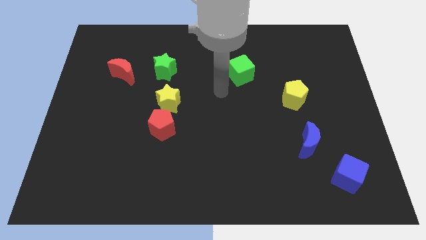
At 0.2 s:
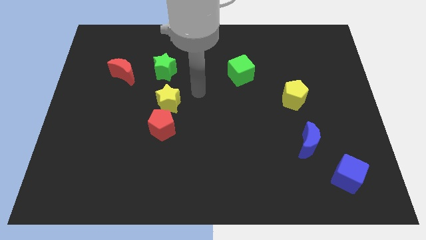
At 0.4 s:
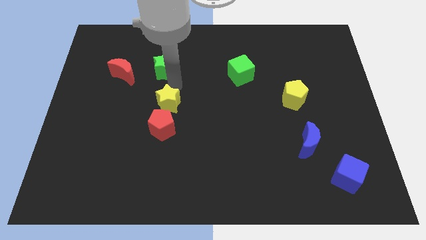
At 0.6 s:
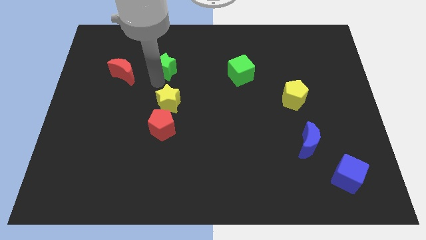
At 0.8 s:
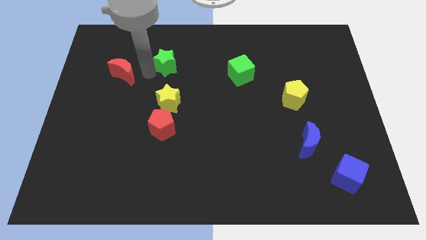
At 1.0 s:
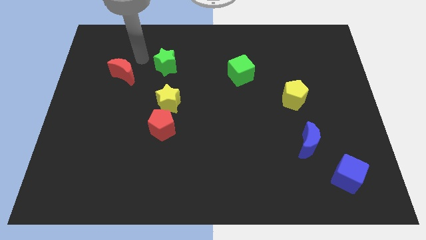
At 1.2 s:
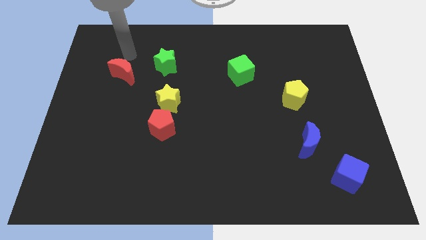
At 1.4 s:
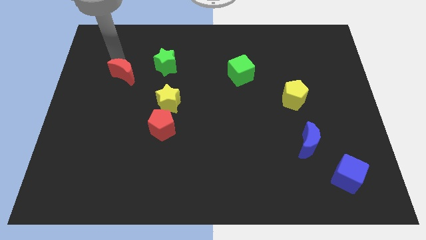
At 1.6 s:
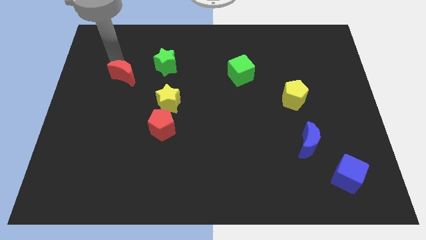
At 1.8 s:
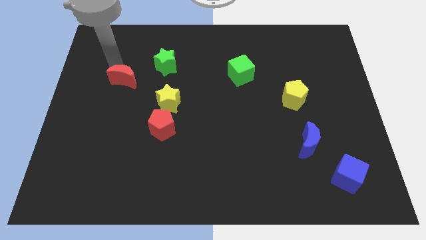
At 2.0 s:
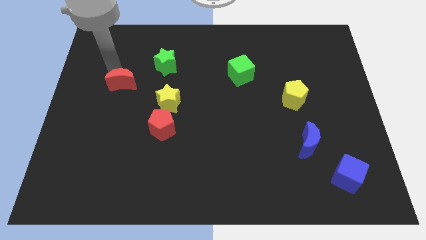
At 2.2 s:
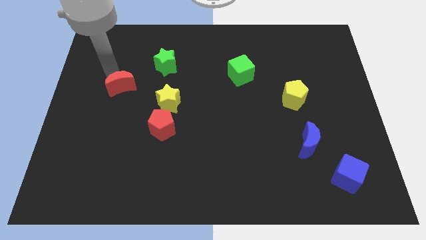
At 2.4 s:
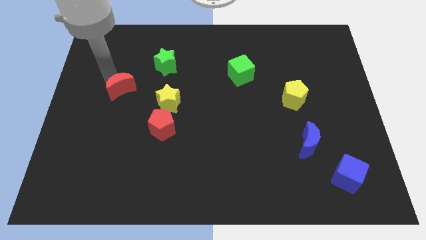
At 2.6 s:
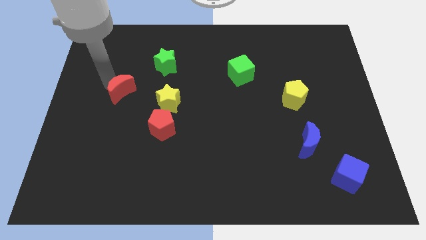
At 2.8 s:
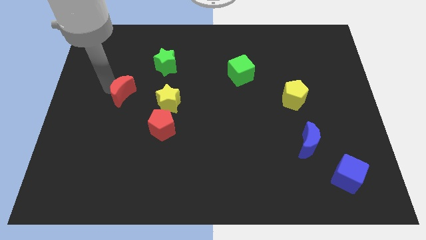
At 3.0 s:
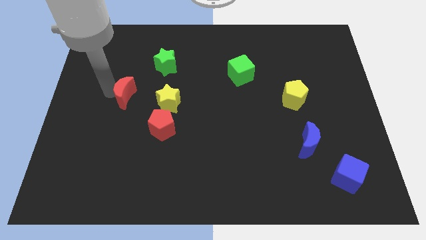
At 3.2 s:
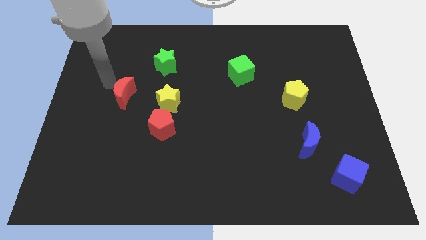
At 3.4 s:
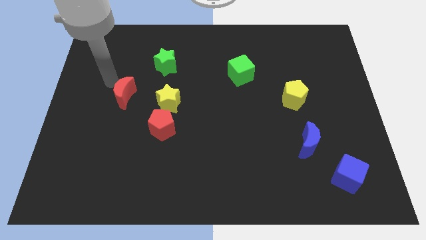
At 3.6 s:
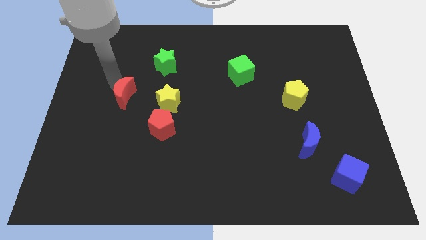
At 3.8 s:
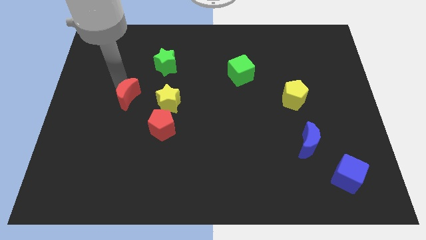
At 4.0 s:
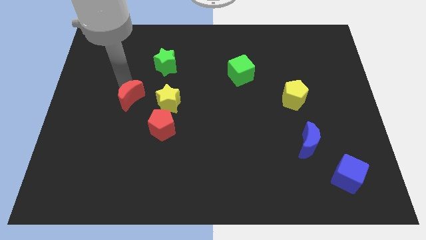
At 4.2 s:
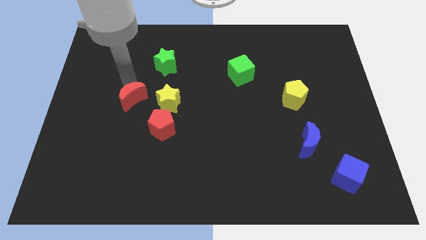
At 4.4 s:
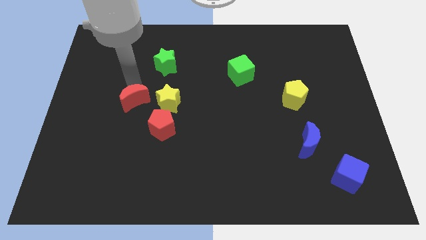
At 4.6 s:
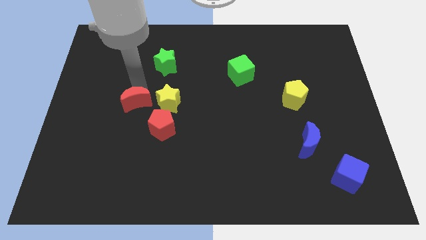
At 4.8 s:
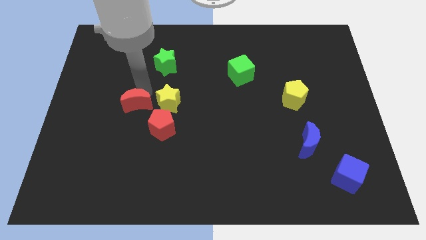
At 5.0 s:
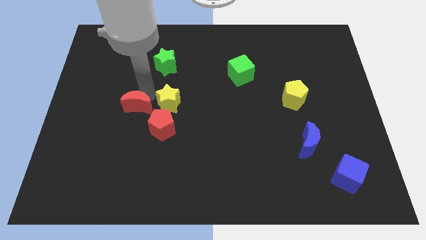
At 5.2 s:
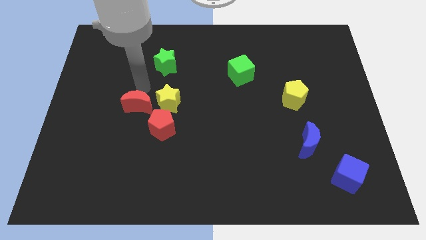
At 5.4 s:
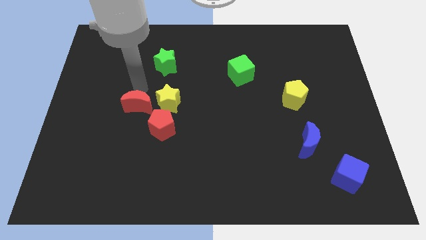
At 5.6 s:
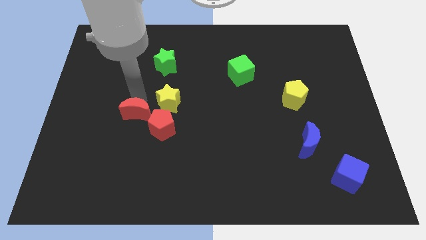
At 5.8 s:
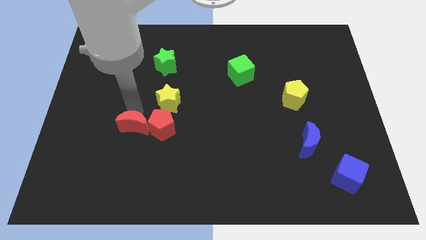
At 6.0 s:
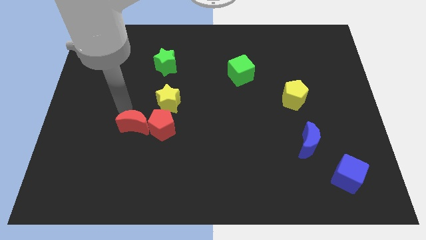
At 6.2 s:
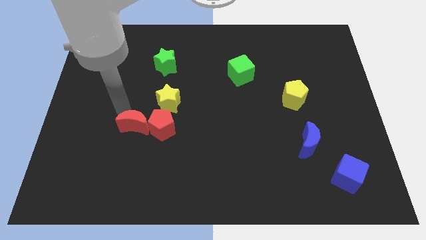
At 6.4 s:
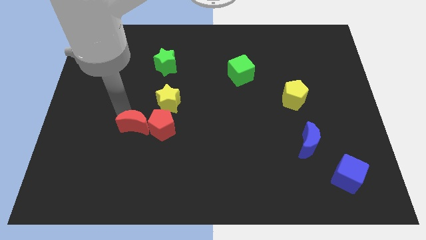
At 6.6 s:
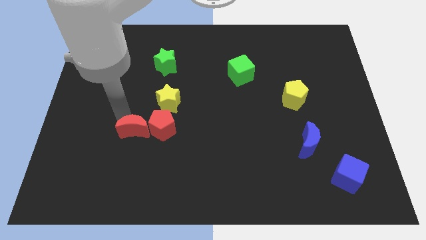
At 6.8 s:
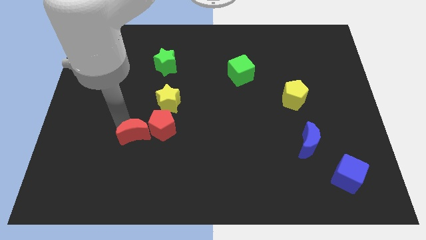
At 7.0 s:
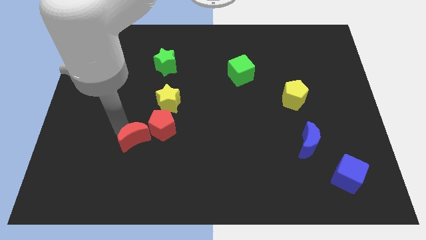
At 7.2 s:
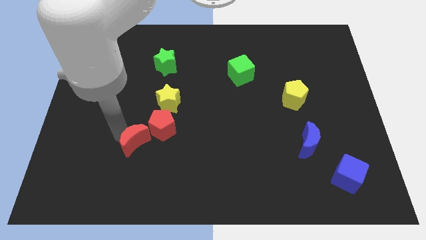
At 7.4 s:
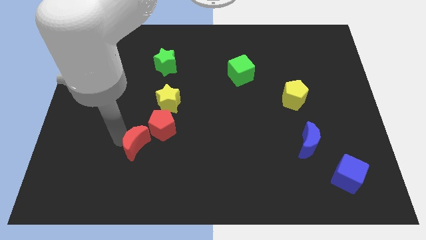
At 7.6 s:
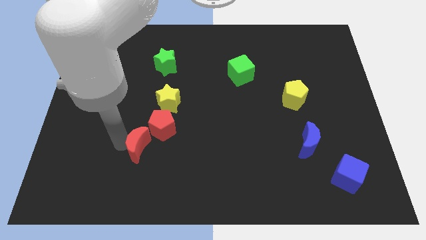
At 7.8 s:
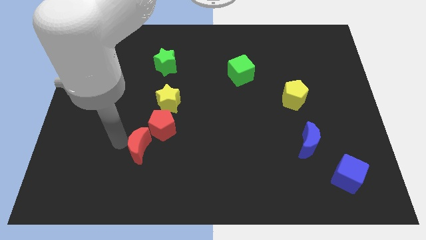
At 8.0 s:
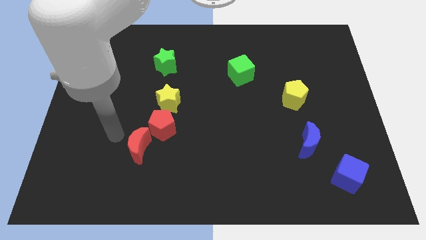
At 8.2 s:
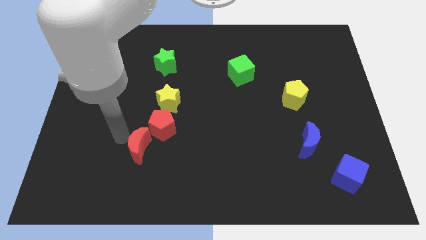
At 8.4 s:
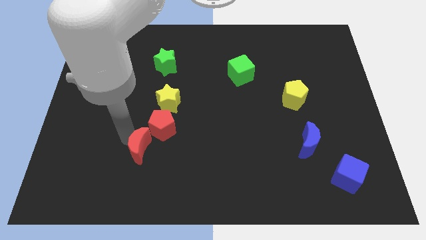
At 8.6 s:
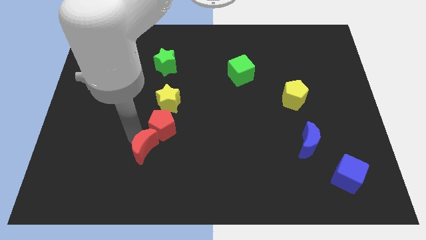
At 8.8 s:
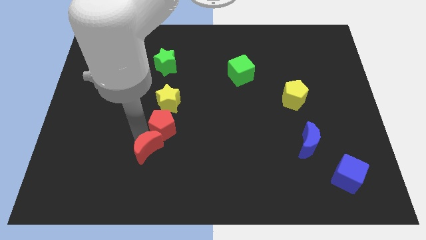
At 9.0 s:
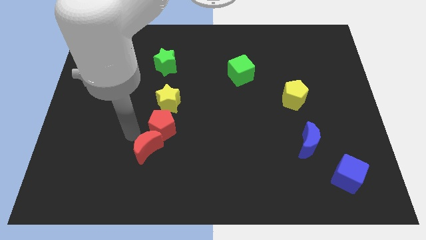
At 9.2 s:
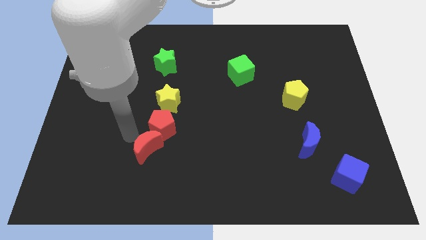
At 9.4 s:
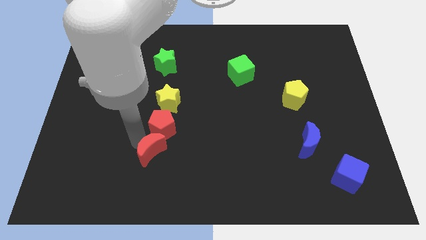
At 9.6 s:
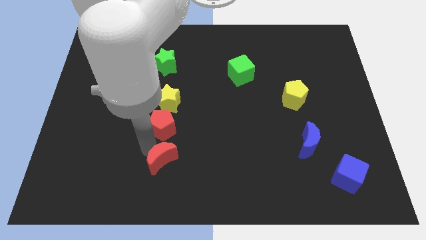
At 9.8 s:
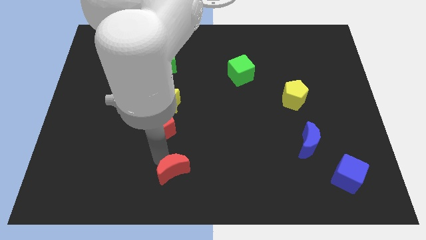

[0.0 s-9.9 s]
move the red moon to the bottom

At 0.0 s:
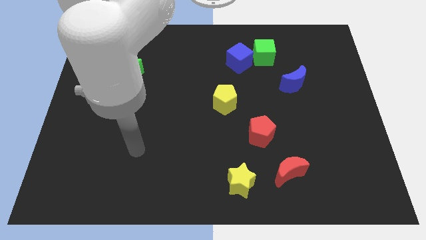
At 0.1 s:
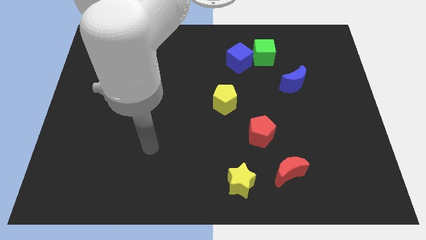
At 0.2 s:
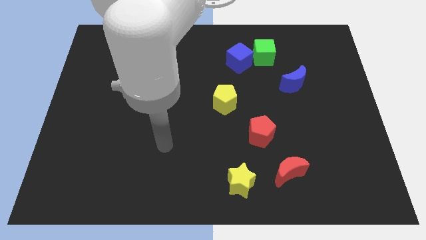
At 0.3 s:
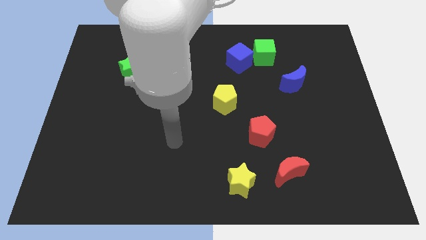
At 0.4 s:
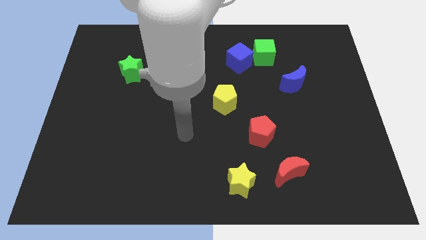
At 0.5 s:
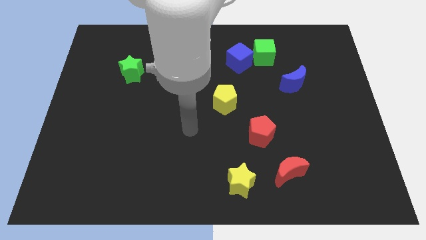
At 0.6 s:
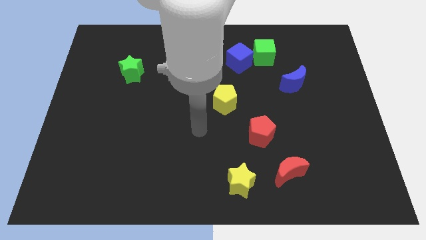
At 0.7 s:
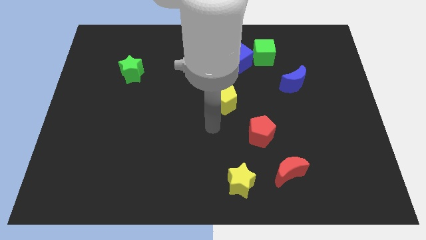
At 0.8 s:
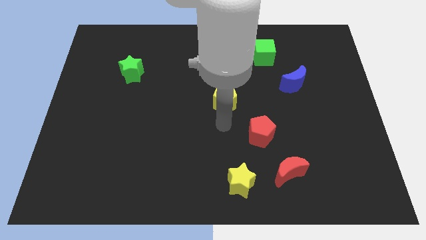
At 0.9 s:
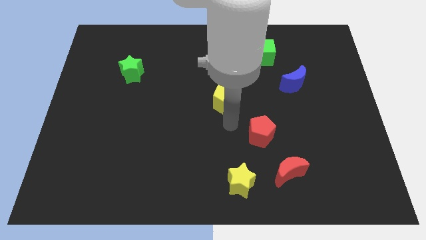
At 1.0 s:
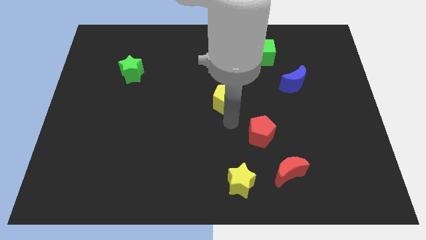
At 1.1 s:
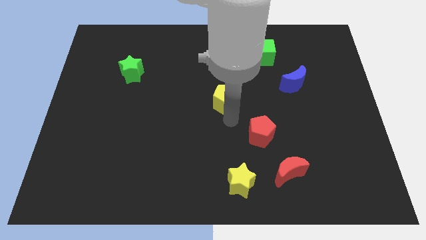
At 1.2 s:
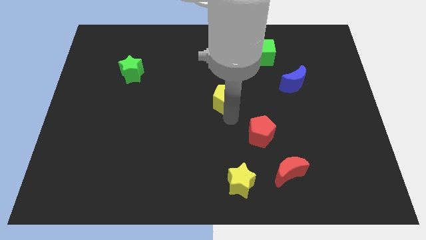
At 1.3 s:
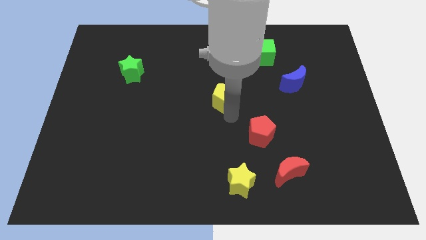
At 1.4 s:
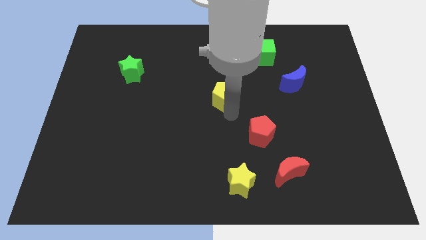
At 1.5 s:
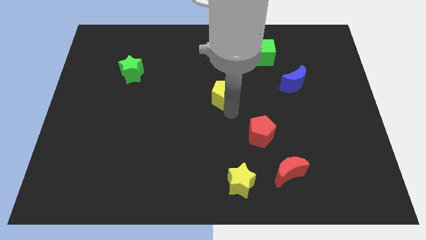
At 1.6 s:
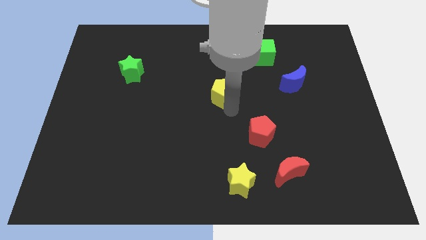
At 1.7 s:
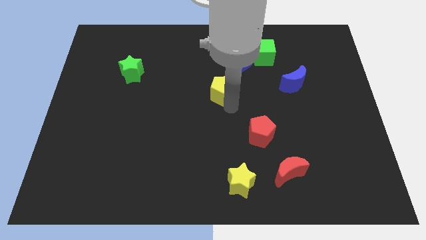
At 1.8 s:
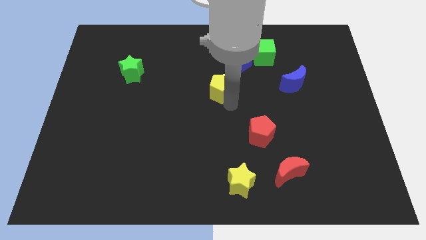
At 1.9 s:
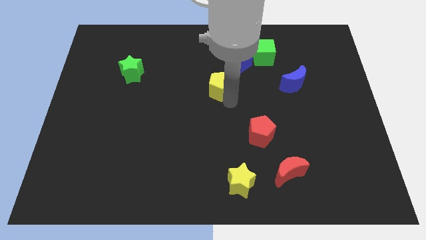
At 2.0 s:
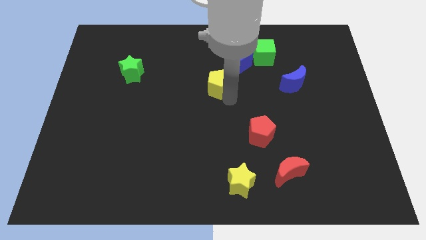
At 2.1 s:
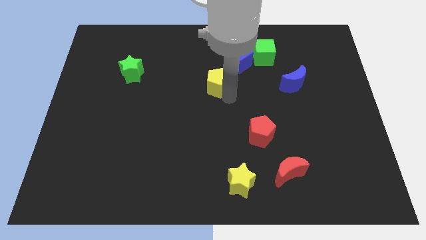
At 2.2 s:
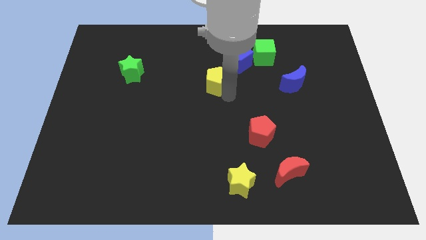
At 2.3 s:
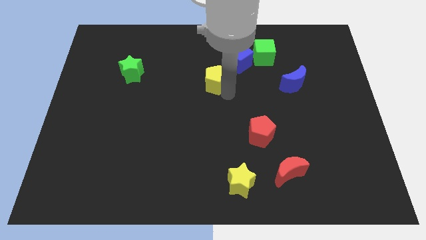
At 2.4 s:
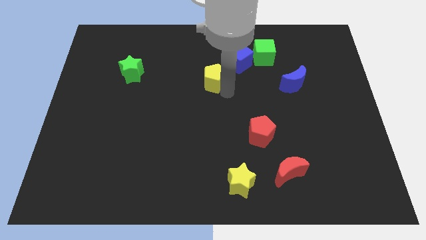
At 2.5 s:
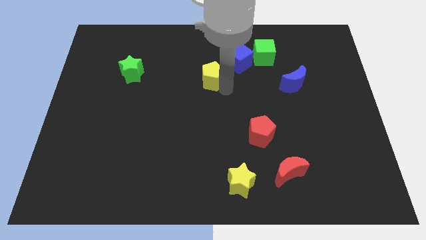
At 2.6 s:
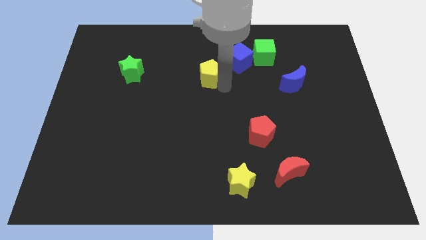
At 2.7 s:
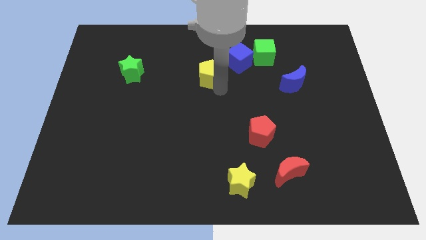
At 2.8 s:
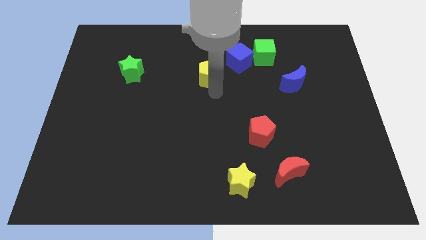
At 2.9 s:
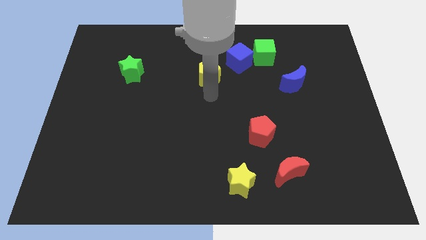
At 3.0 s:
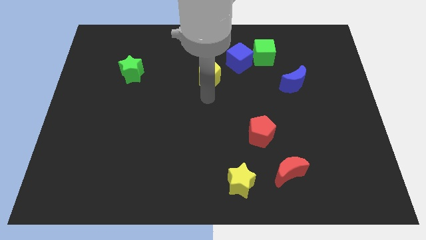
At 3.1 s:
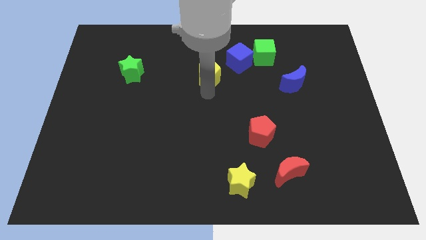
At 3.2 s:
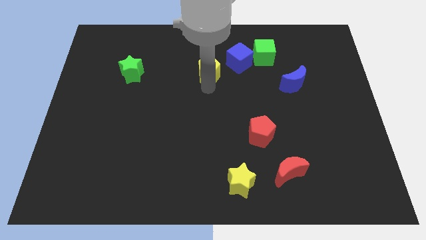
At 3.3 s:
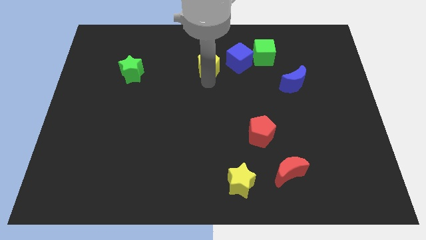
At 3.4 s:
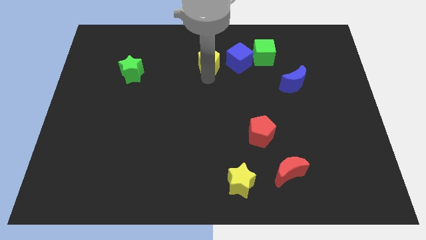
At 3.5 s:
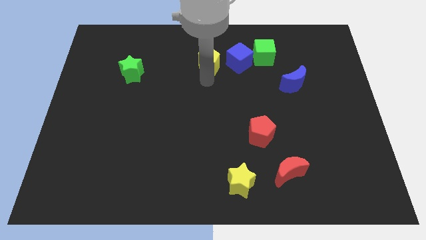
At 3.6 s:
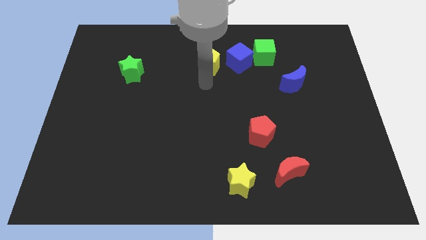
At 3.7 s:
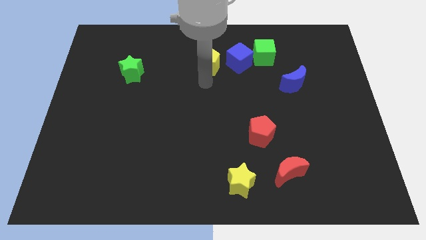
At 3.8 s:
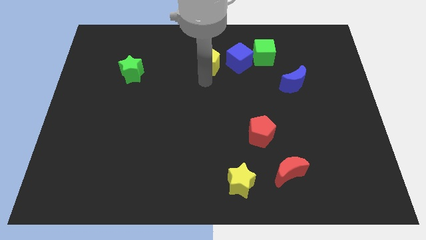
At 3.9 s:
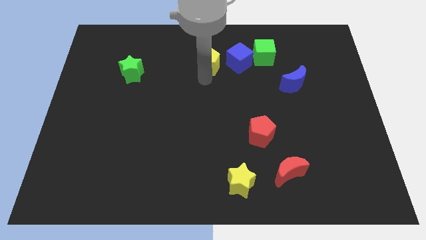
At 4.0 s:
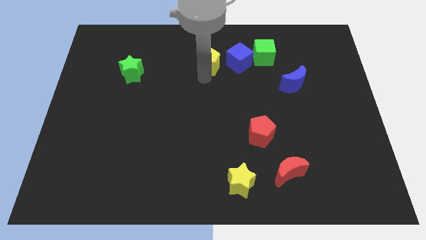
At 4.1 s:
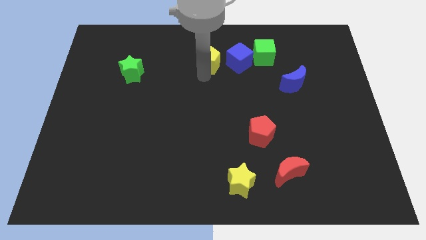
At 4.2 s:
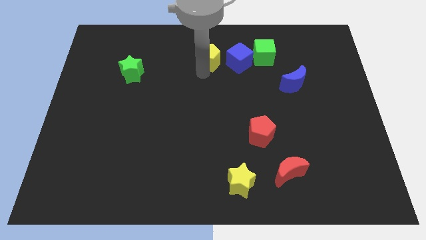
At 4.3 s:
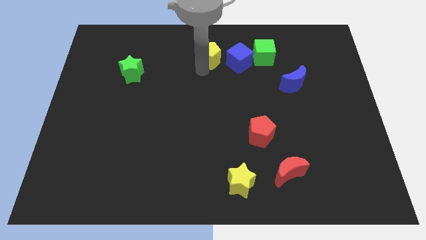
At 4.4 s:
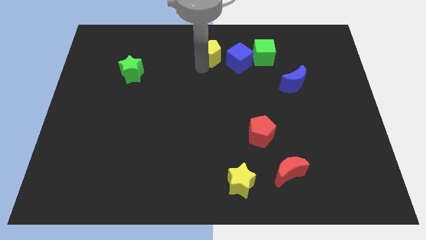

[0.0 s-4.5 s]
put the yellow pentagon to the top side
